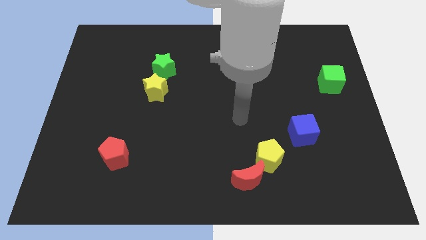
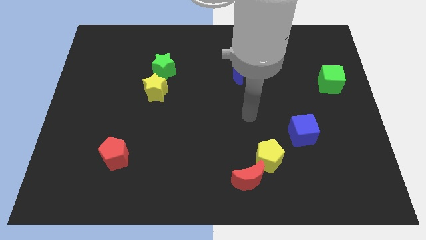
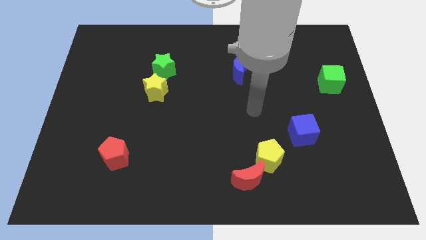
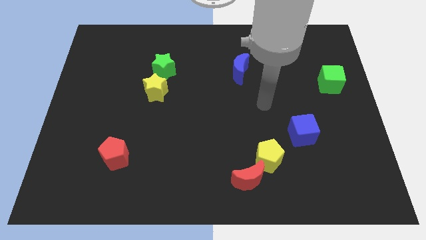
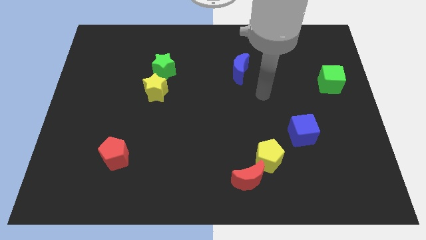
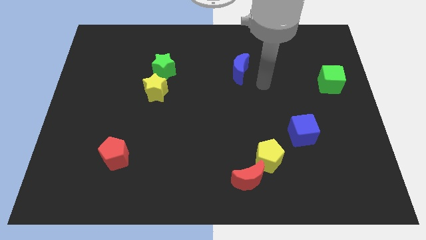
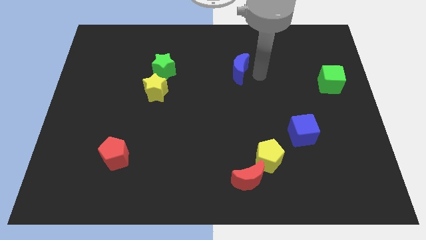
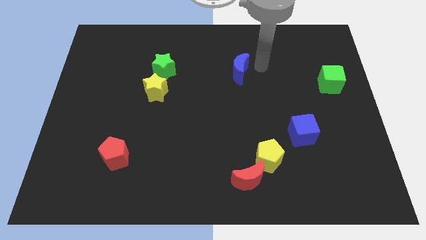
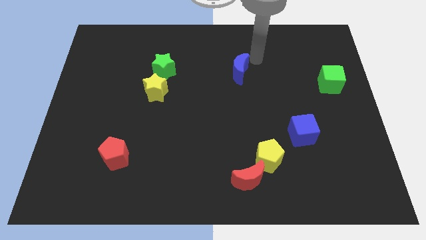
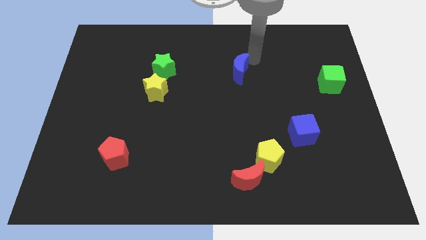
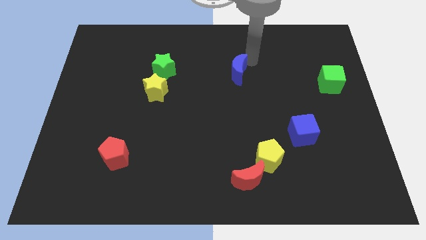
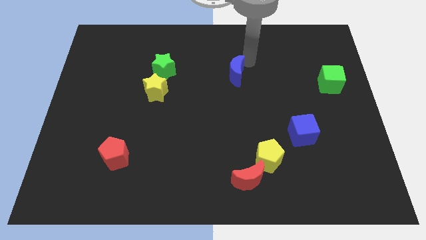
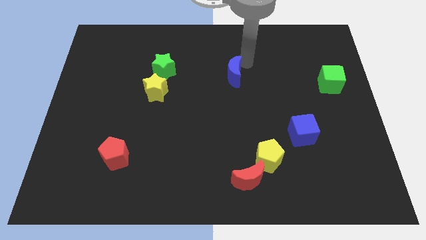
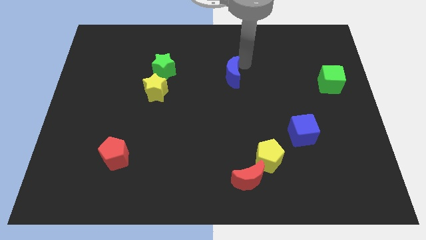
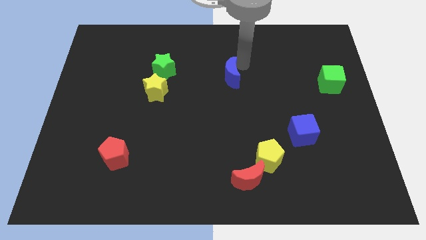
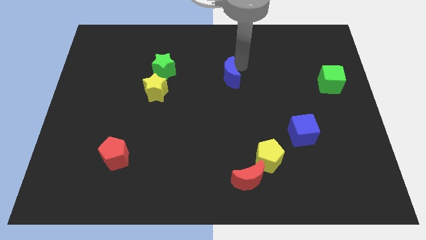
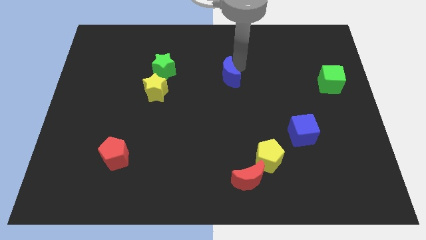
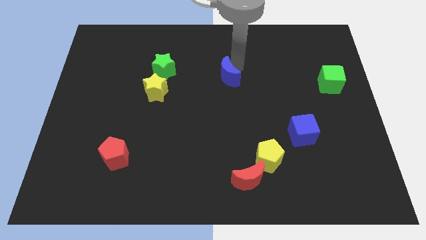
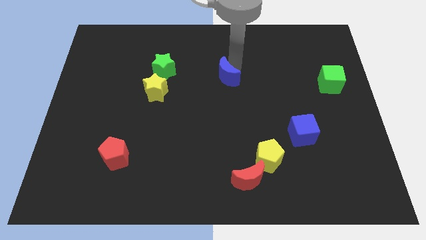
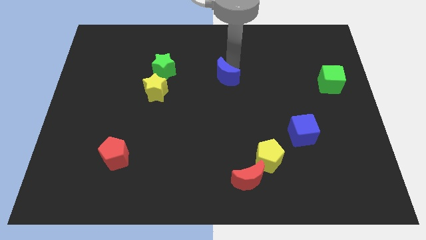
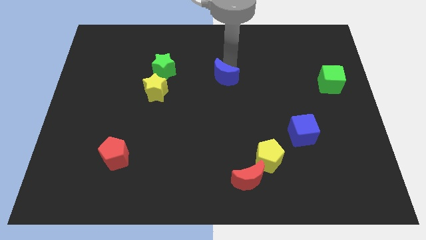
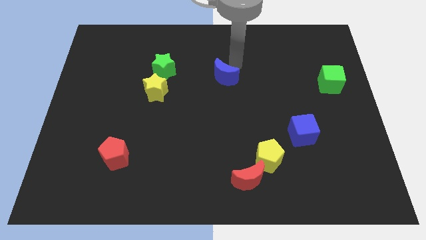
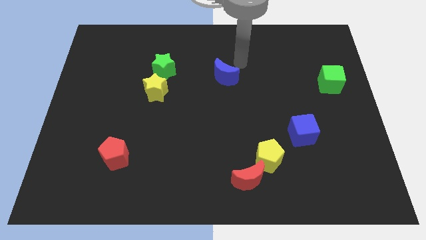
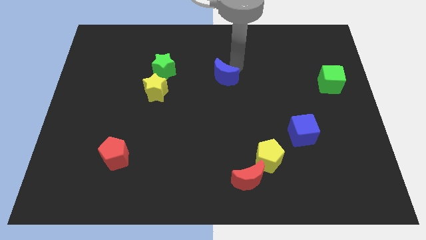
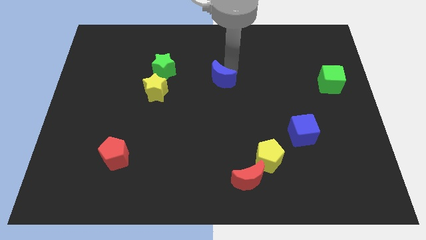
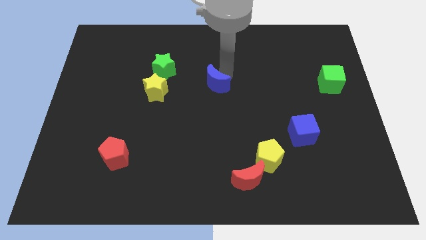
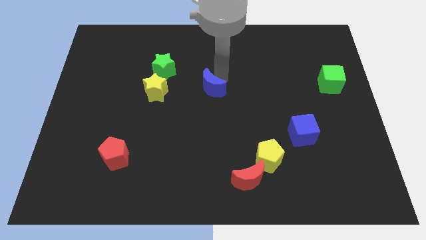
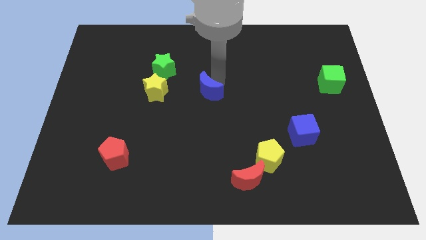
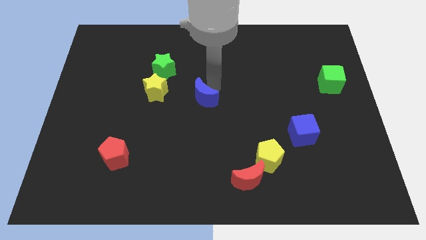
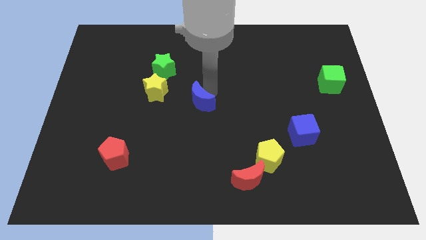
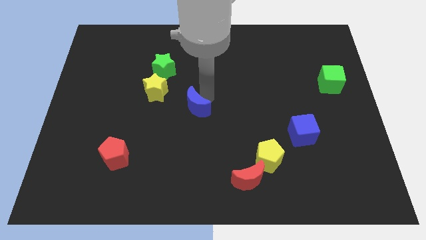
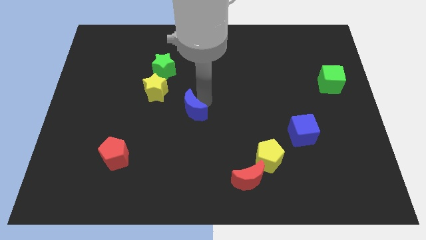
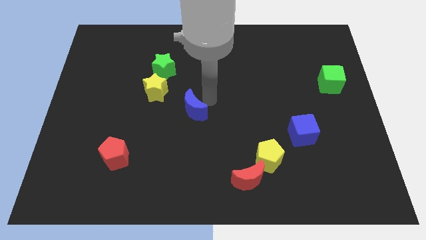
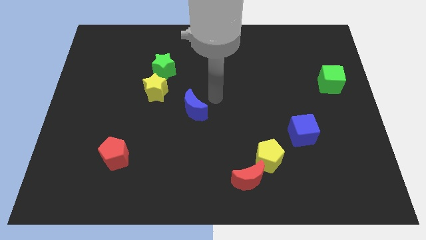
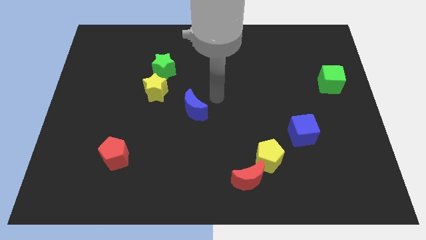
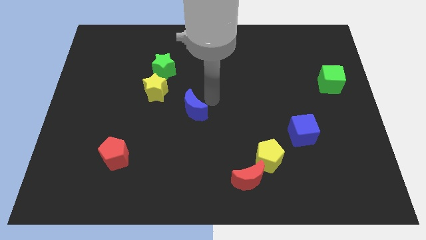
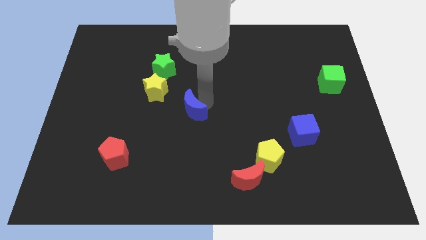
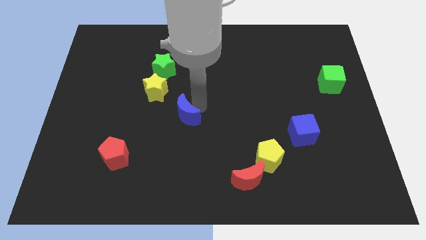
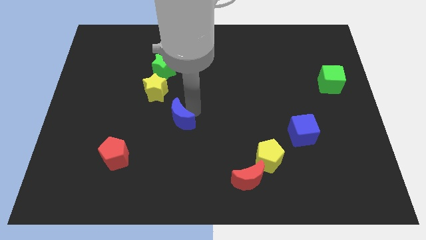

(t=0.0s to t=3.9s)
slide the blue moon diagonally down and to the left

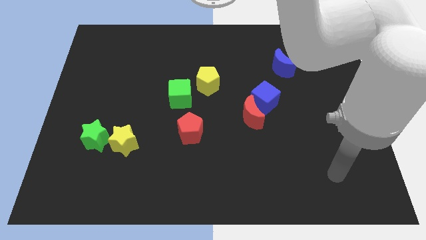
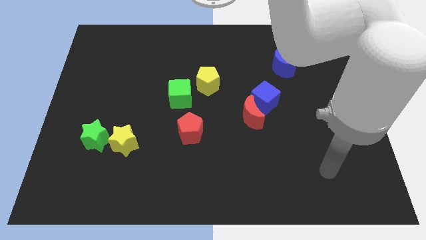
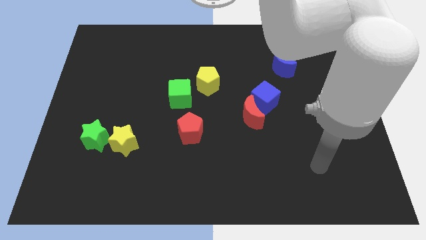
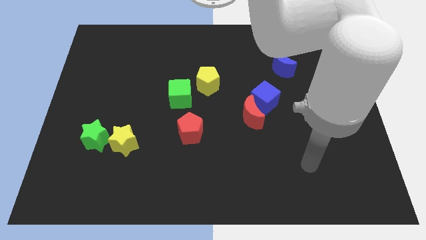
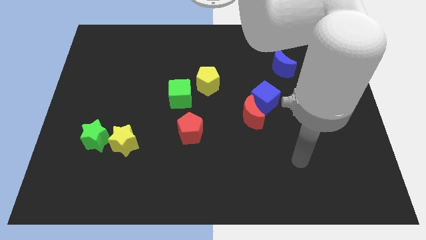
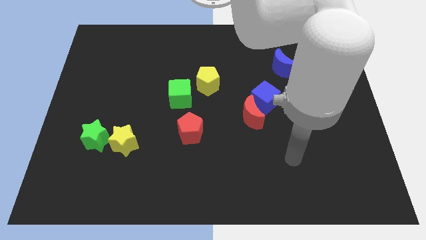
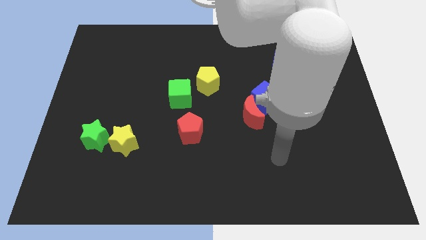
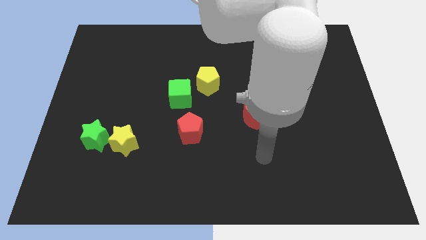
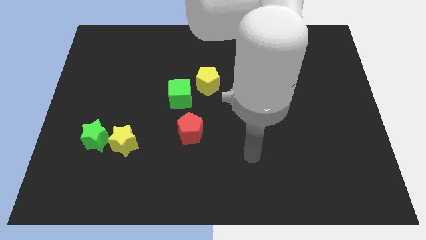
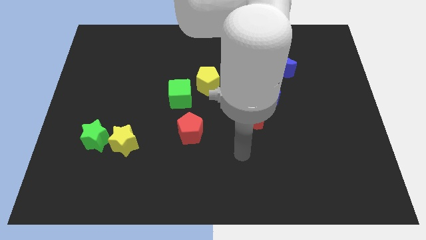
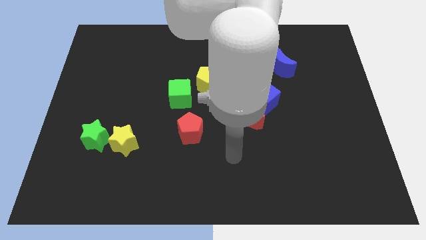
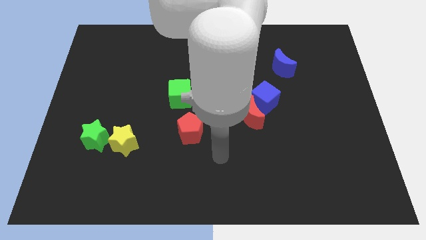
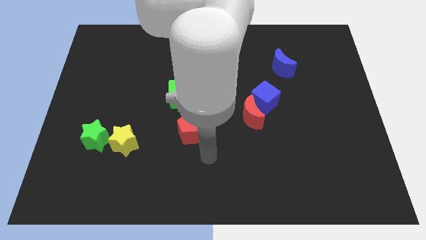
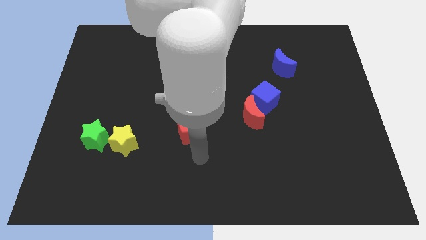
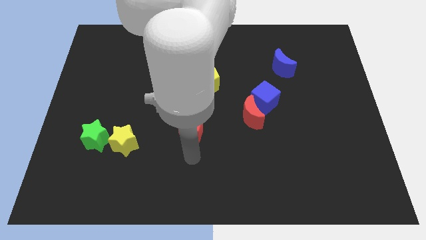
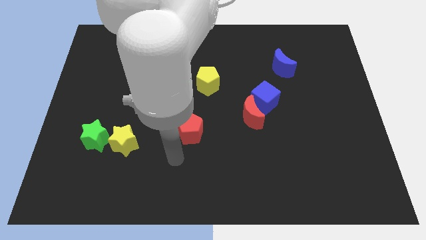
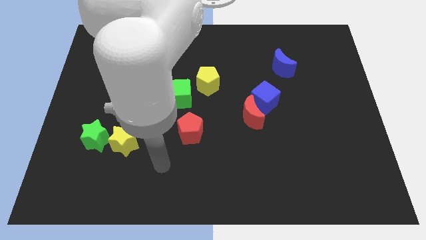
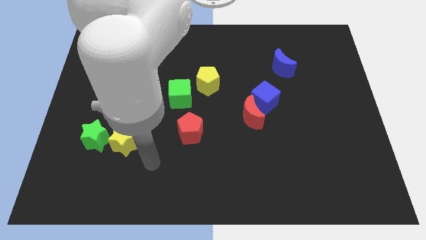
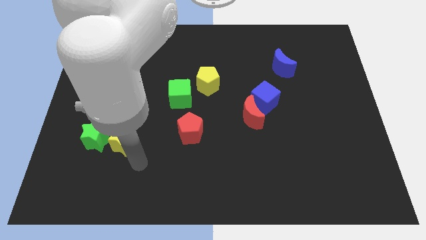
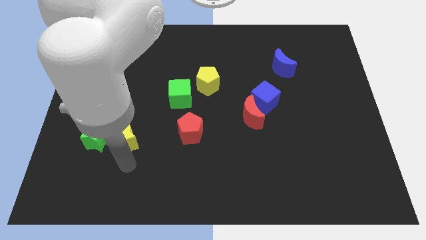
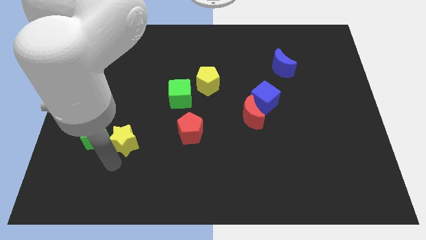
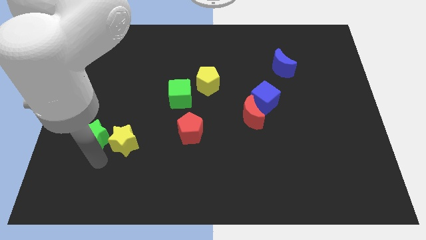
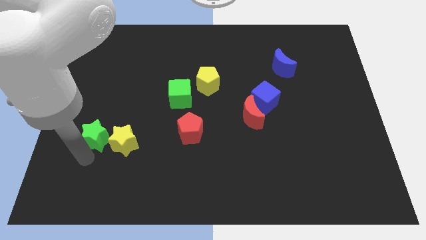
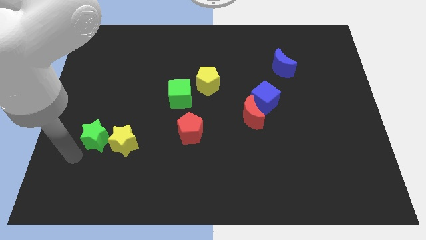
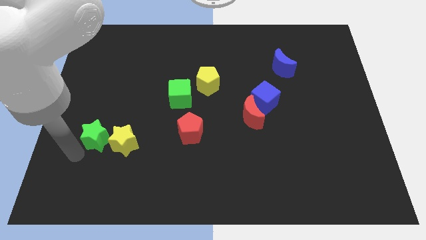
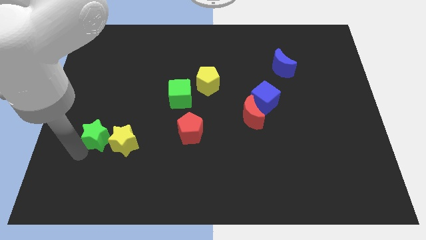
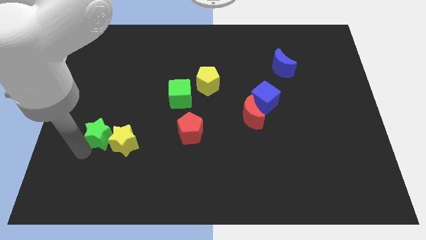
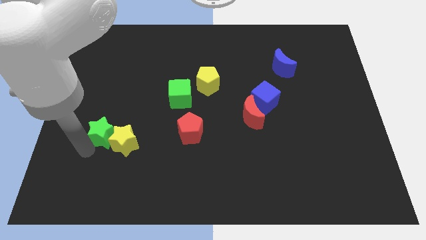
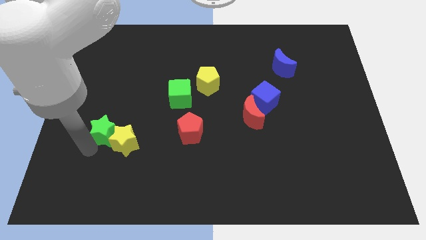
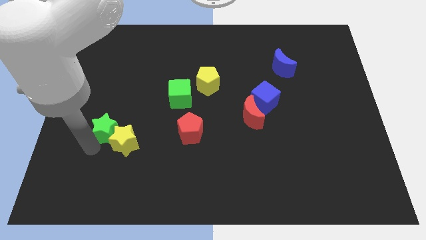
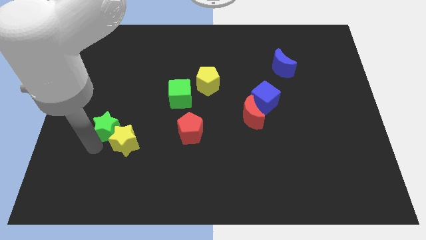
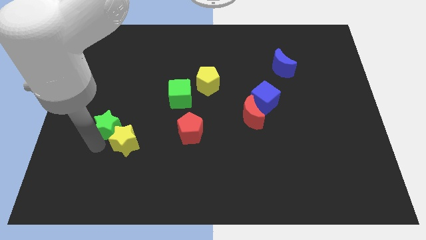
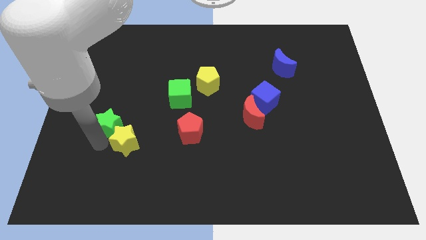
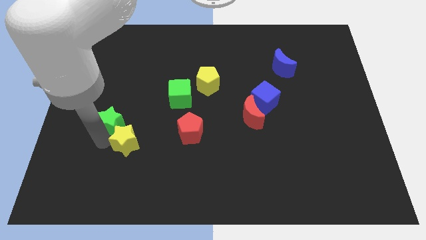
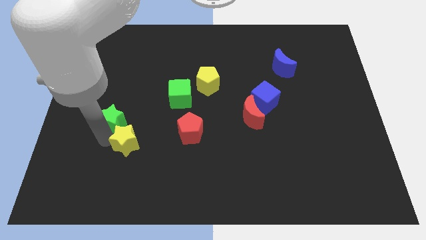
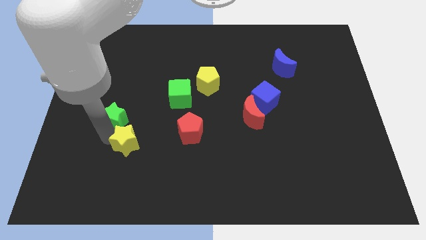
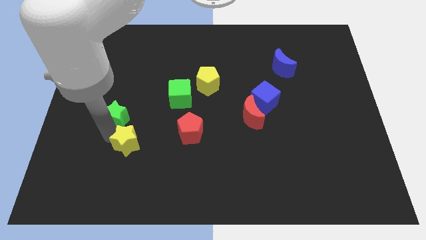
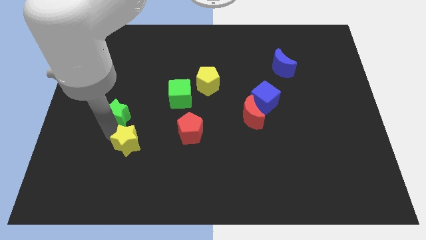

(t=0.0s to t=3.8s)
push the green star up and right diagonally a little bit

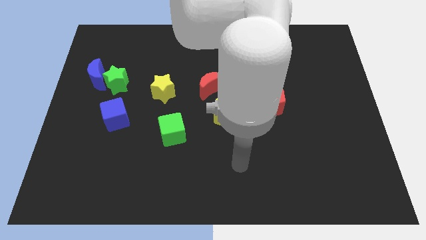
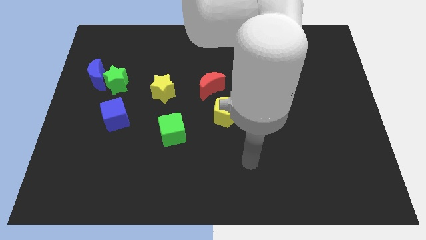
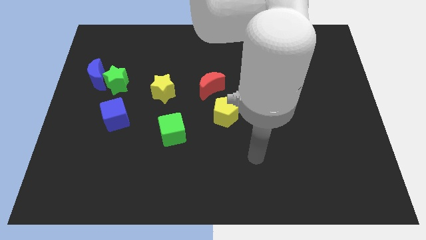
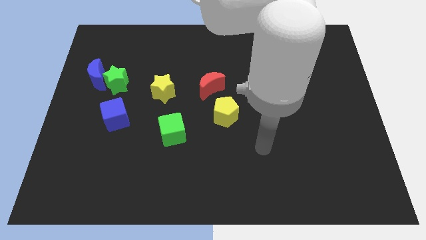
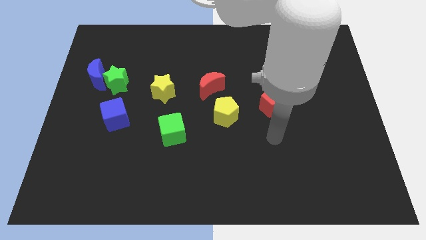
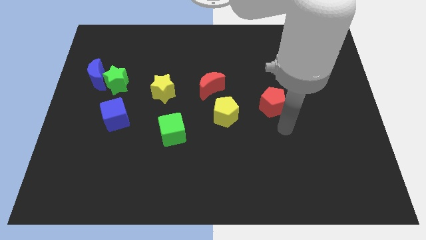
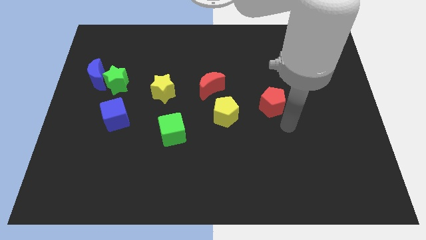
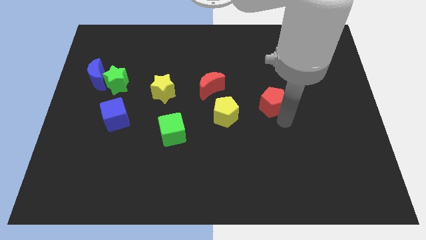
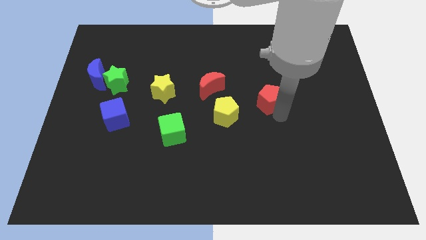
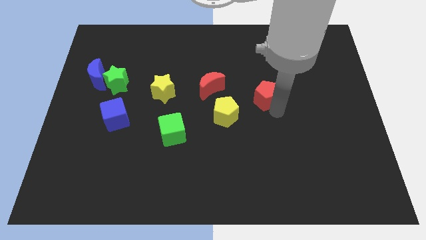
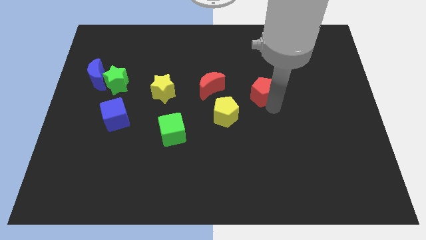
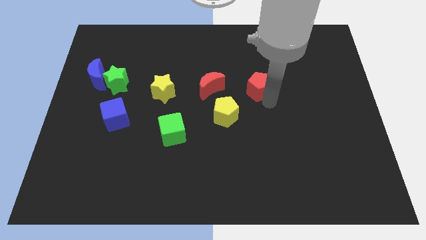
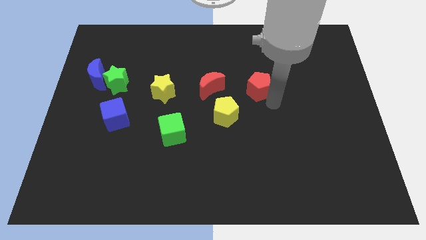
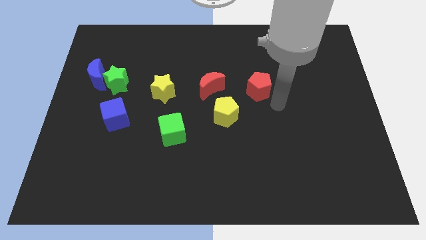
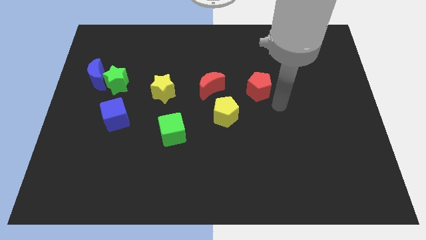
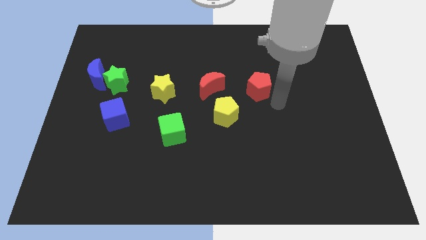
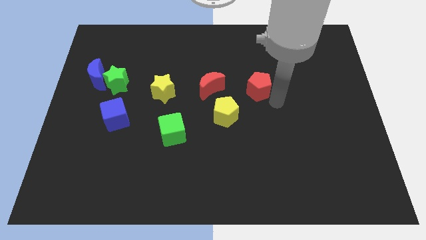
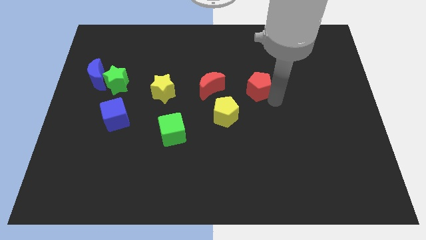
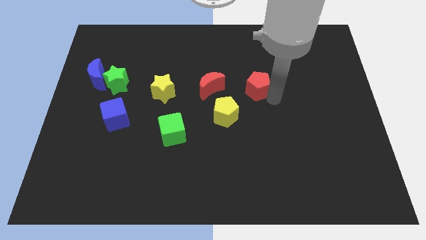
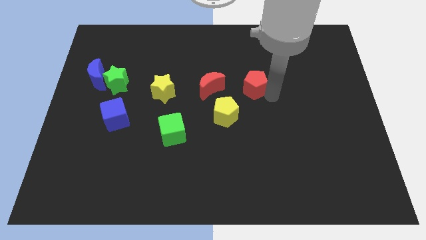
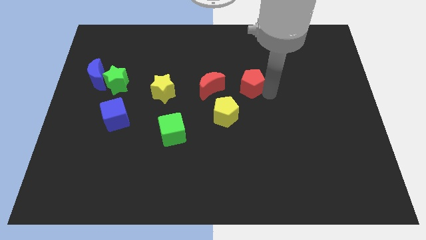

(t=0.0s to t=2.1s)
move the red pentagon a little diagonally upwards and left
